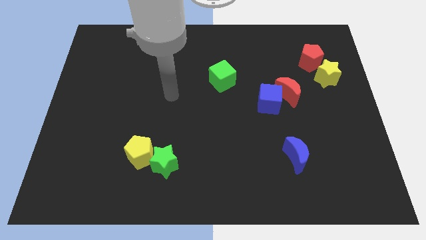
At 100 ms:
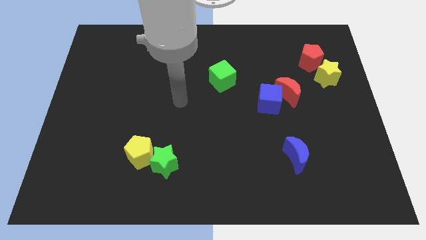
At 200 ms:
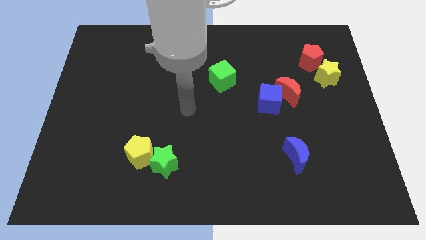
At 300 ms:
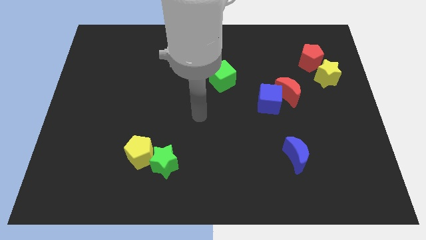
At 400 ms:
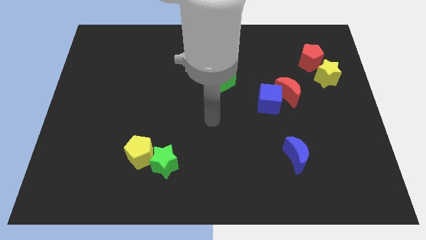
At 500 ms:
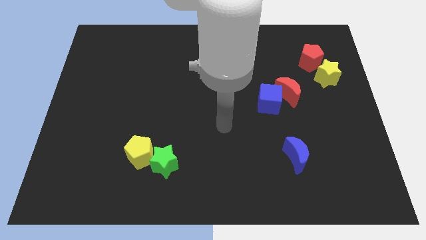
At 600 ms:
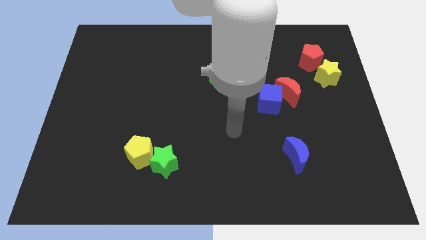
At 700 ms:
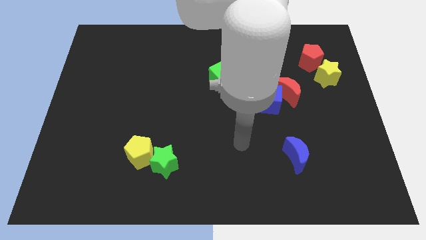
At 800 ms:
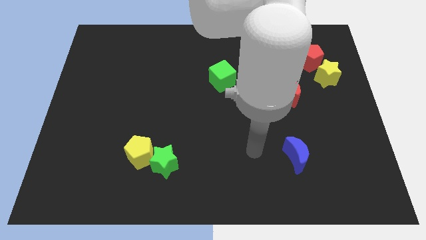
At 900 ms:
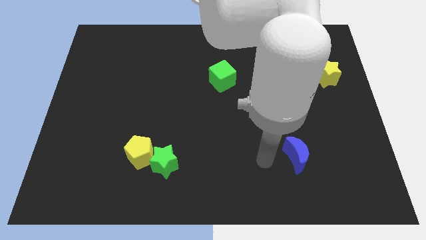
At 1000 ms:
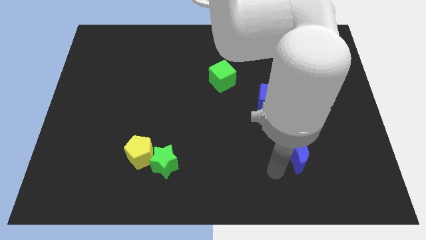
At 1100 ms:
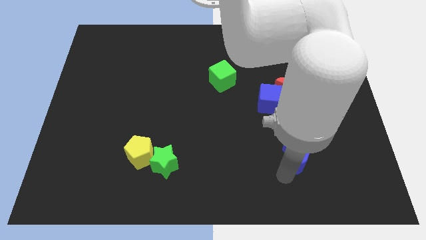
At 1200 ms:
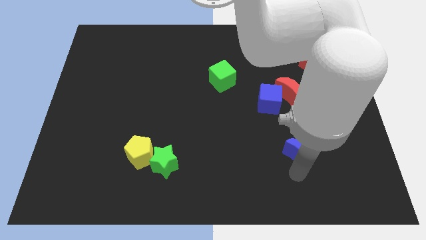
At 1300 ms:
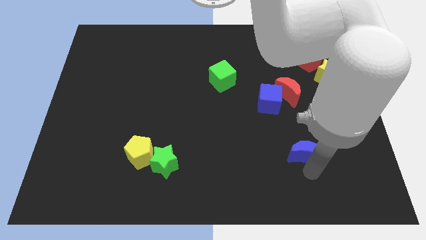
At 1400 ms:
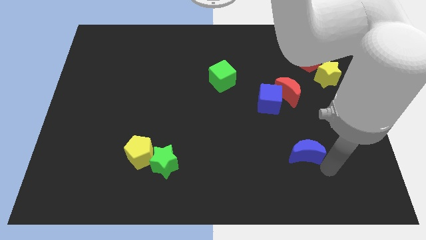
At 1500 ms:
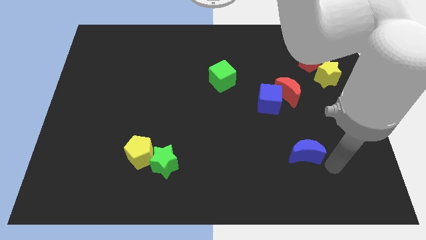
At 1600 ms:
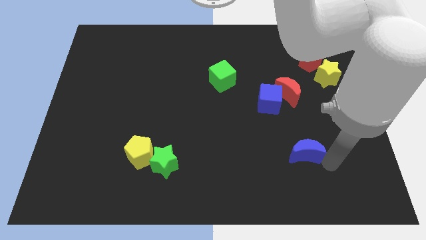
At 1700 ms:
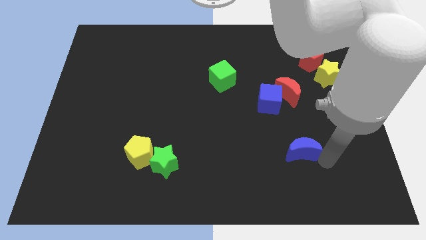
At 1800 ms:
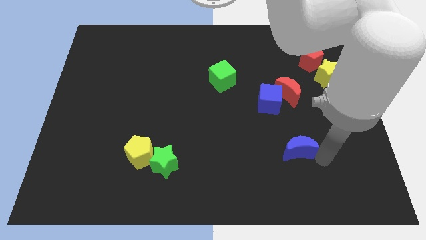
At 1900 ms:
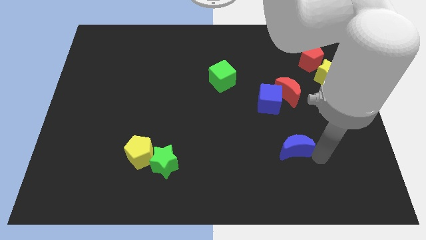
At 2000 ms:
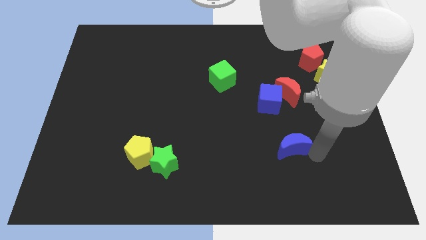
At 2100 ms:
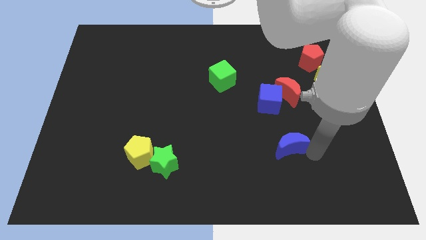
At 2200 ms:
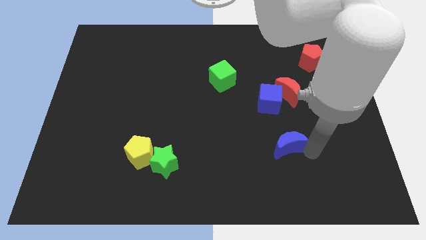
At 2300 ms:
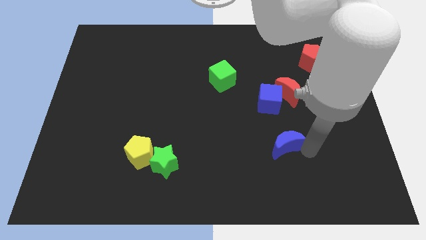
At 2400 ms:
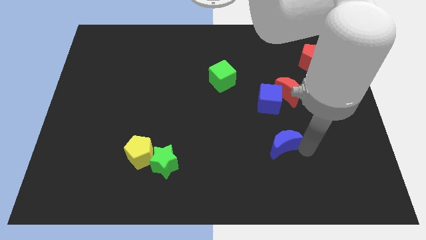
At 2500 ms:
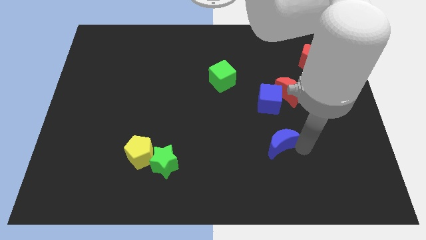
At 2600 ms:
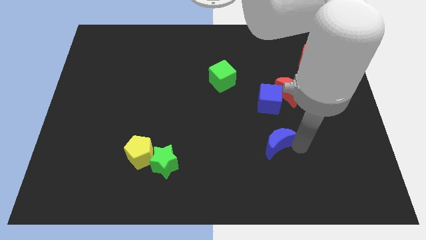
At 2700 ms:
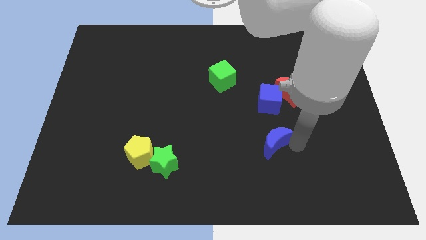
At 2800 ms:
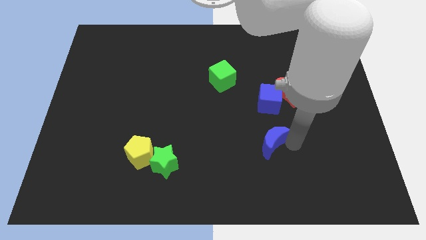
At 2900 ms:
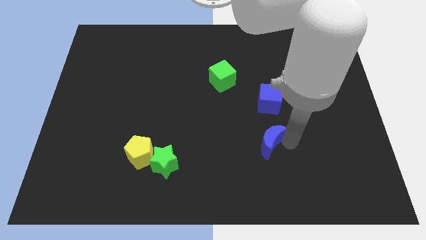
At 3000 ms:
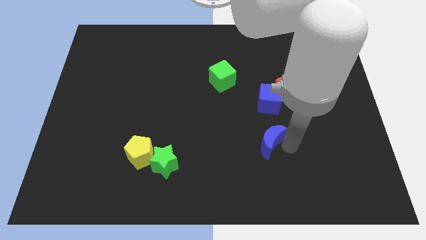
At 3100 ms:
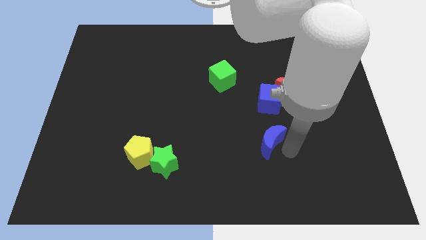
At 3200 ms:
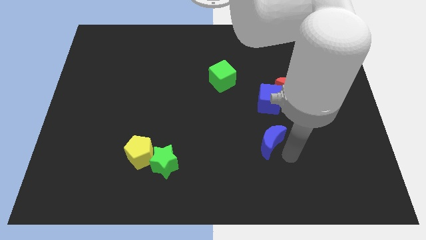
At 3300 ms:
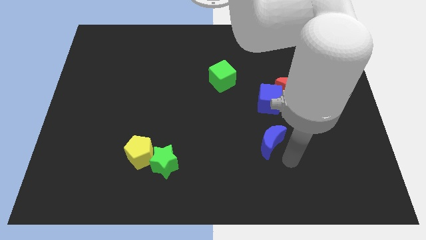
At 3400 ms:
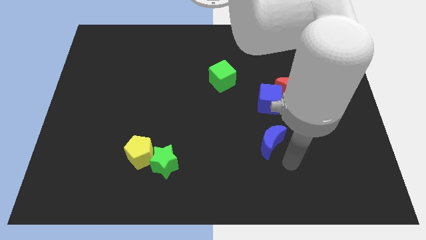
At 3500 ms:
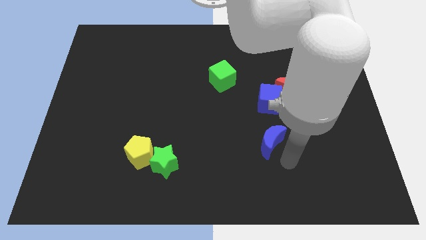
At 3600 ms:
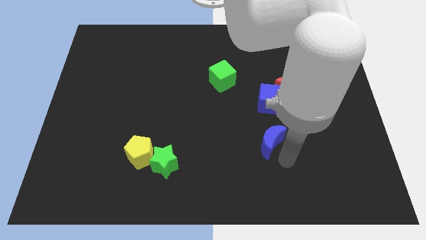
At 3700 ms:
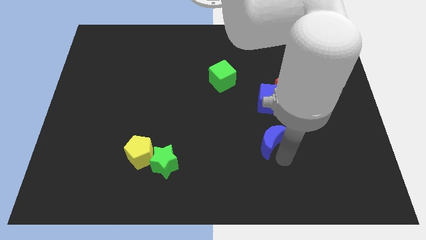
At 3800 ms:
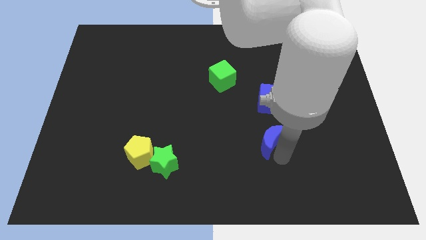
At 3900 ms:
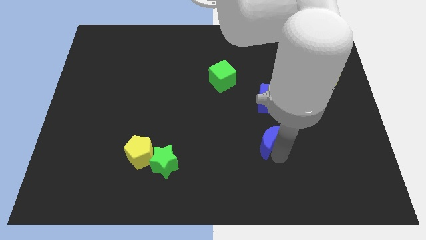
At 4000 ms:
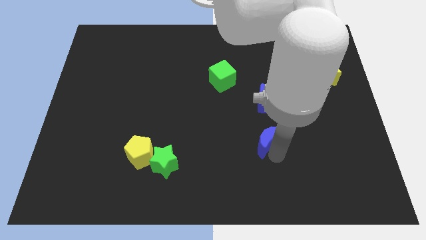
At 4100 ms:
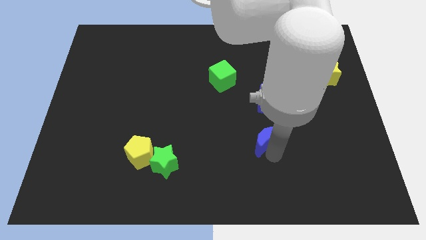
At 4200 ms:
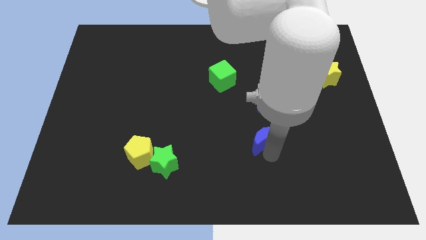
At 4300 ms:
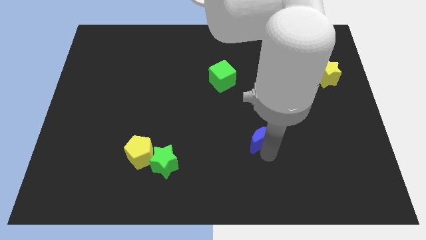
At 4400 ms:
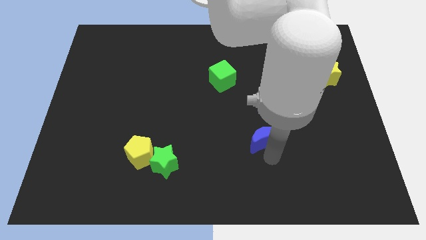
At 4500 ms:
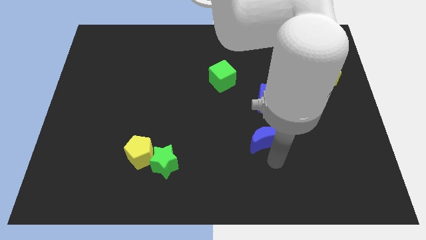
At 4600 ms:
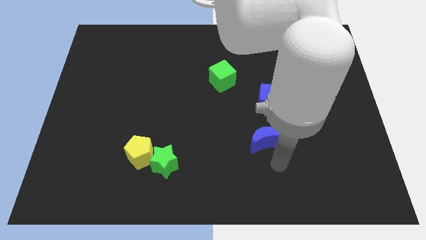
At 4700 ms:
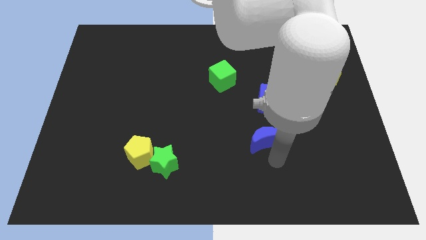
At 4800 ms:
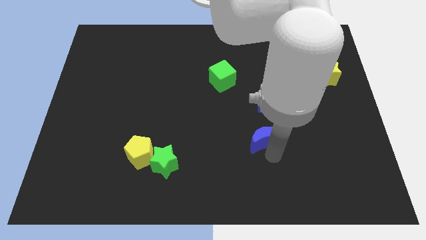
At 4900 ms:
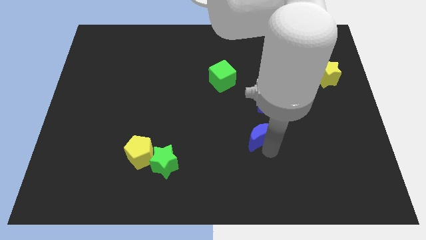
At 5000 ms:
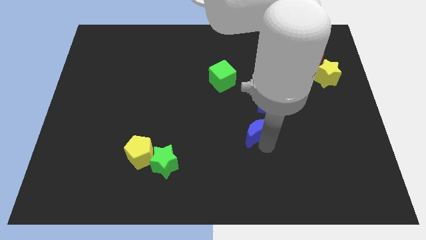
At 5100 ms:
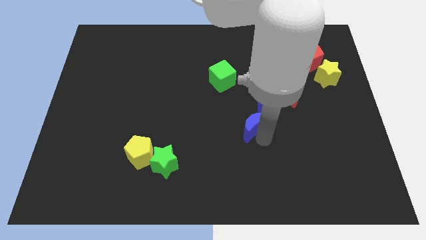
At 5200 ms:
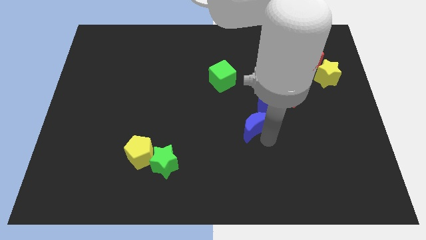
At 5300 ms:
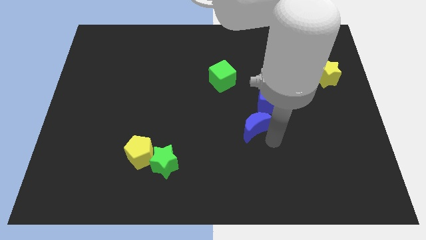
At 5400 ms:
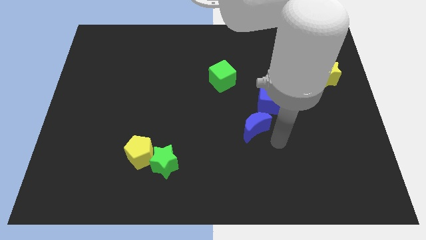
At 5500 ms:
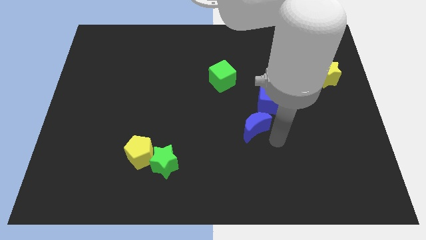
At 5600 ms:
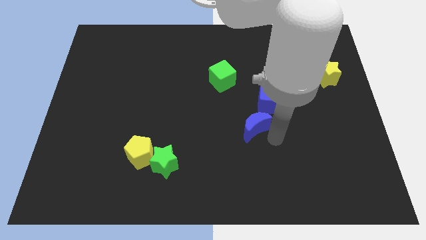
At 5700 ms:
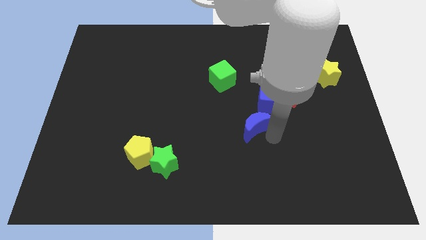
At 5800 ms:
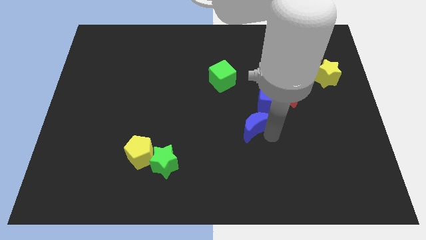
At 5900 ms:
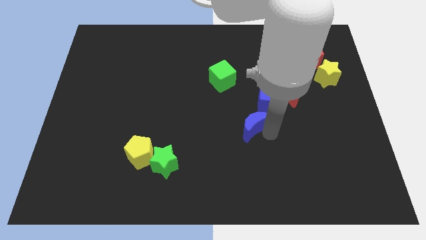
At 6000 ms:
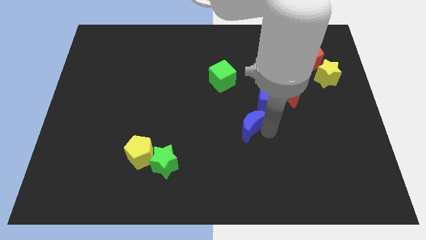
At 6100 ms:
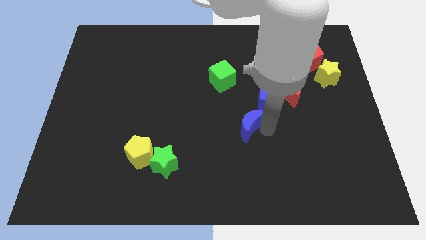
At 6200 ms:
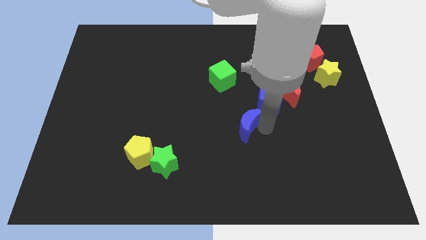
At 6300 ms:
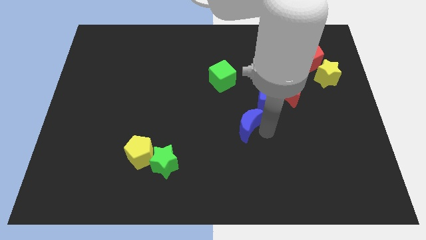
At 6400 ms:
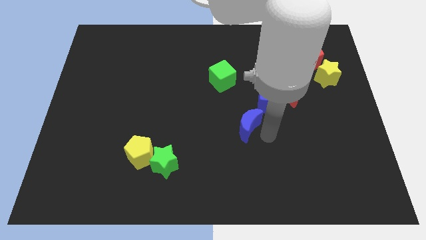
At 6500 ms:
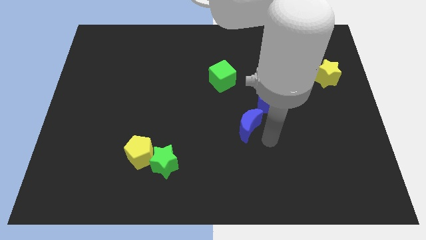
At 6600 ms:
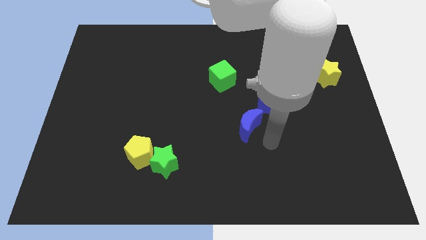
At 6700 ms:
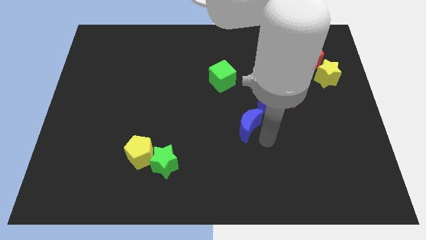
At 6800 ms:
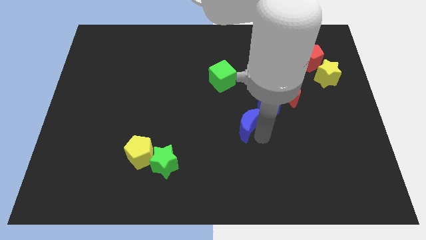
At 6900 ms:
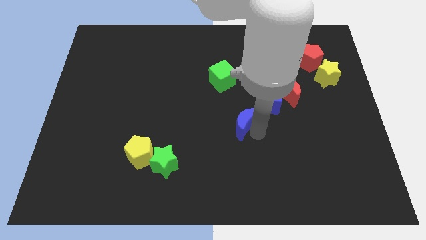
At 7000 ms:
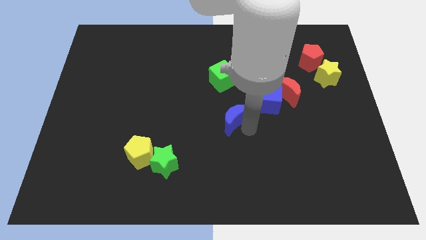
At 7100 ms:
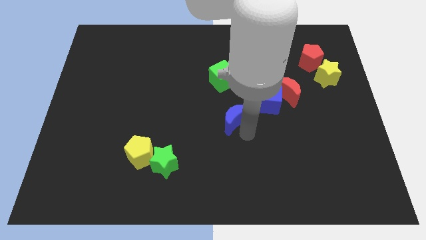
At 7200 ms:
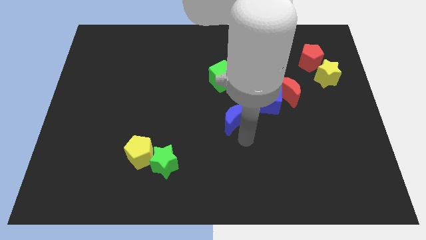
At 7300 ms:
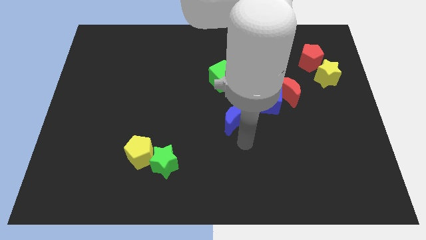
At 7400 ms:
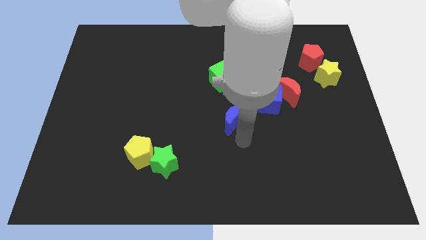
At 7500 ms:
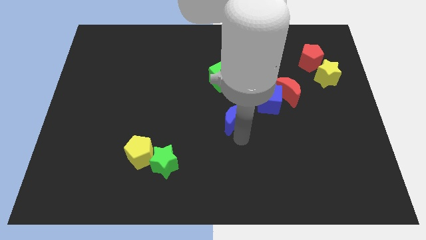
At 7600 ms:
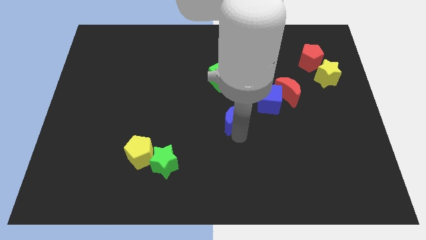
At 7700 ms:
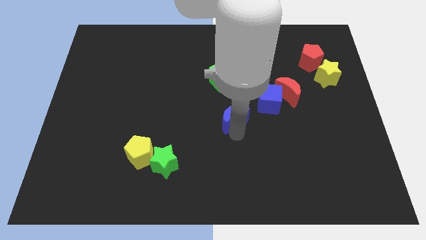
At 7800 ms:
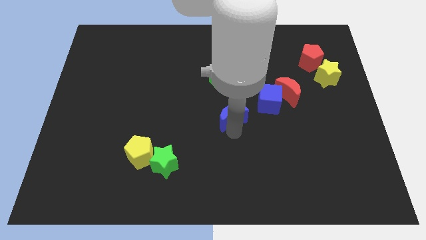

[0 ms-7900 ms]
move the blue moon just left of the blue cube
